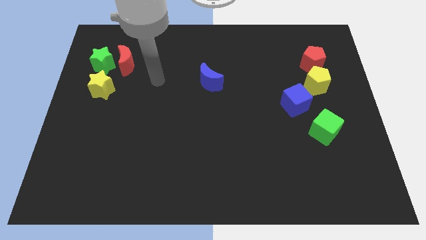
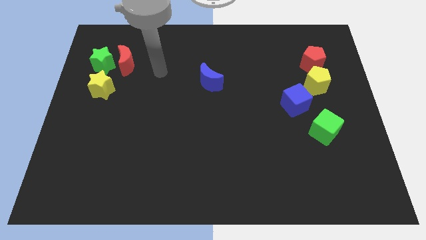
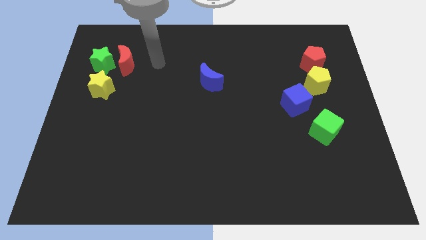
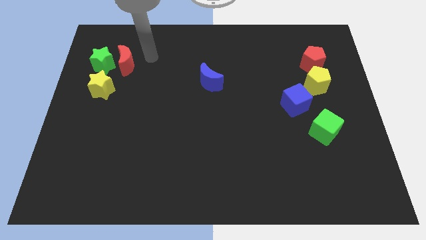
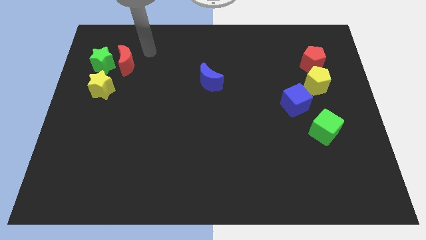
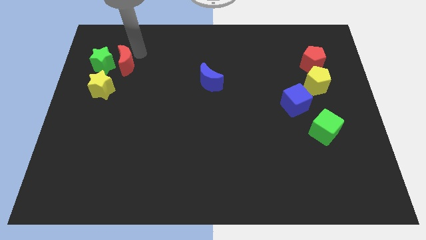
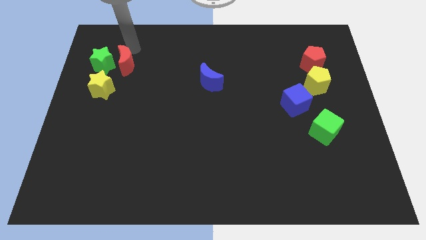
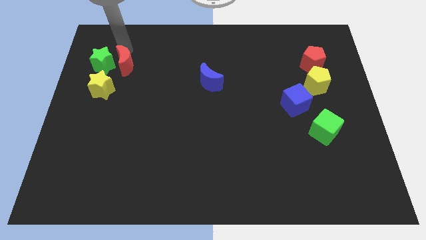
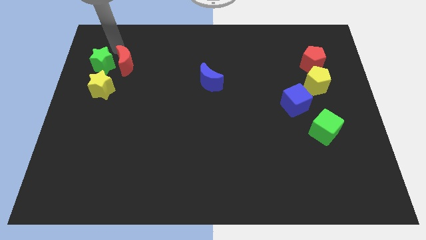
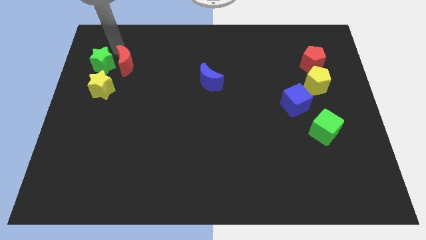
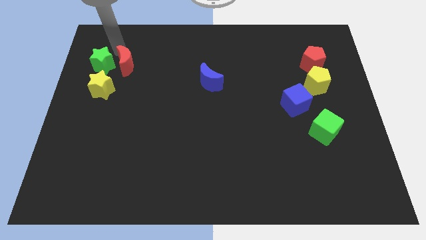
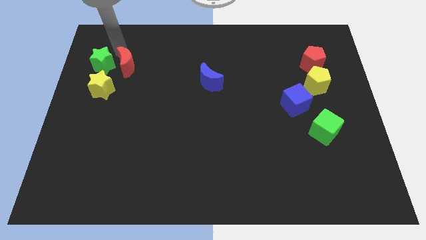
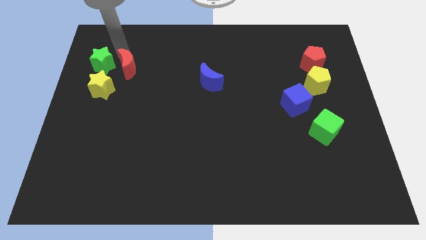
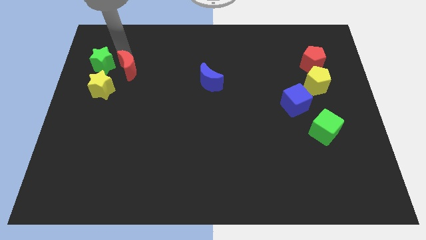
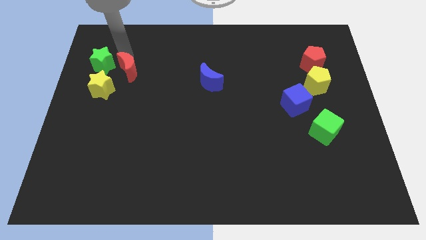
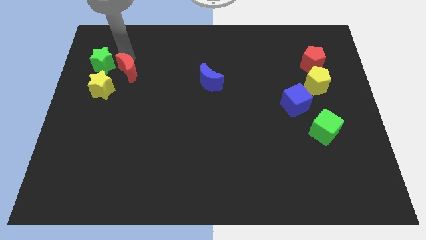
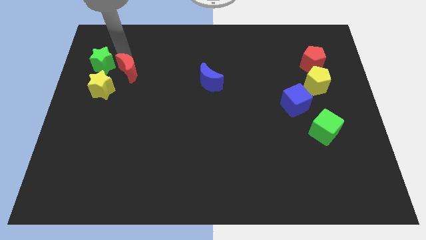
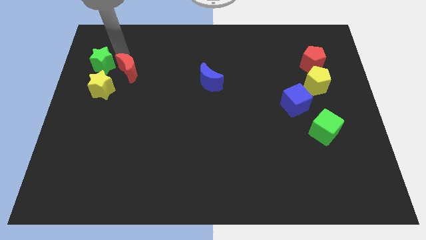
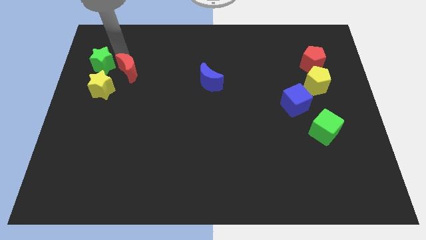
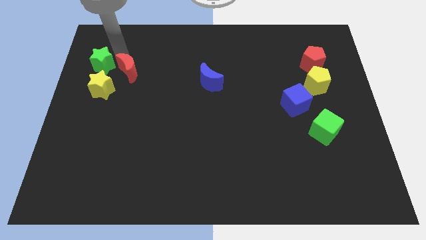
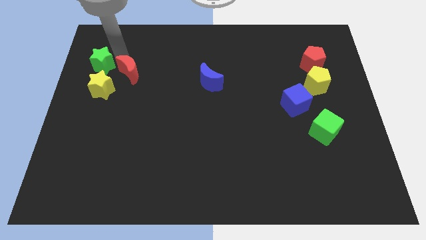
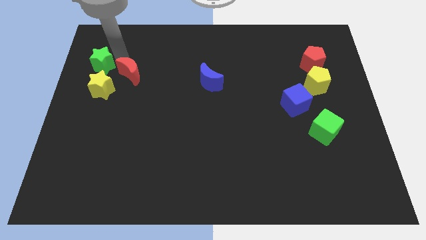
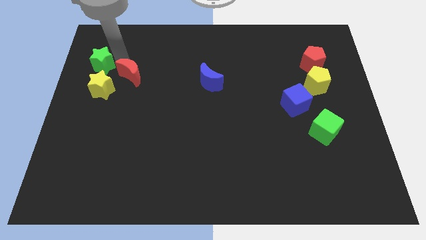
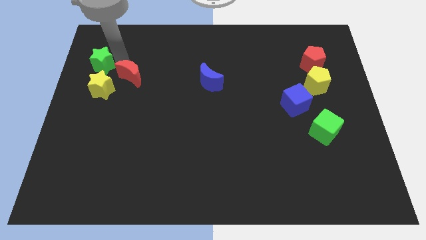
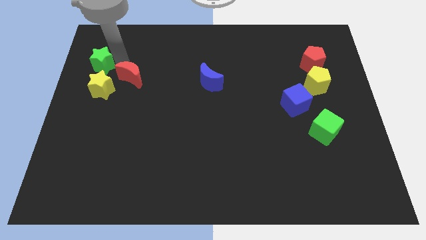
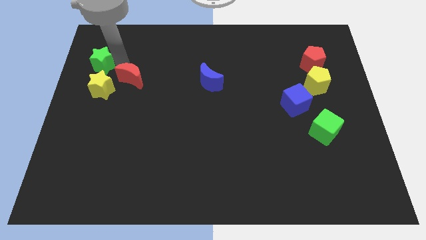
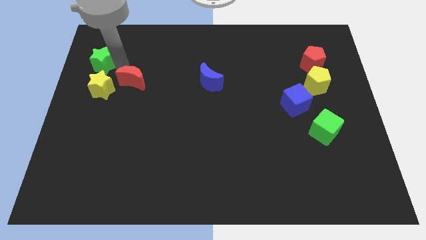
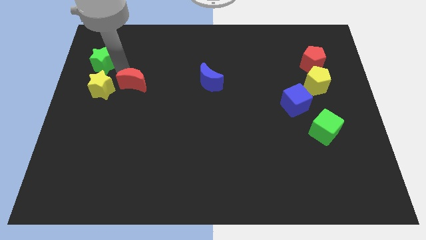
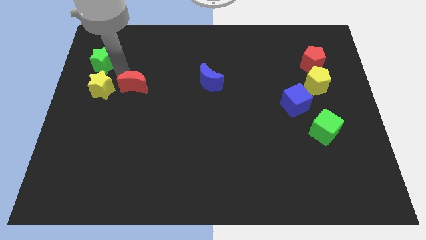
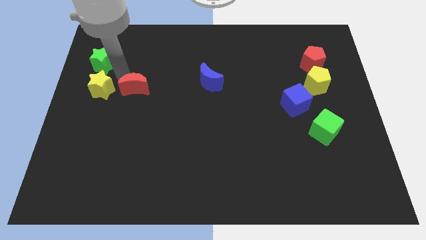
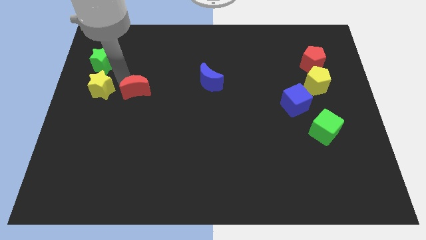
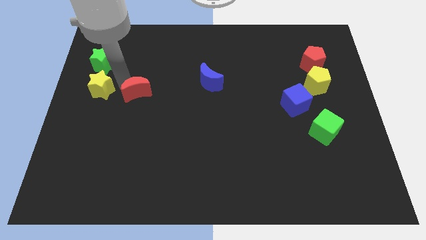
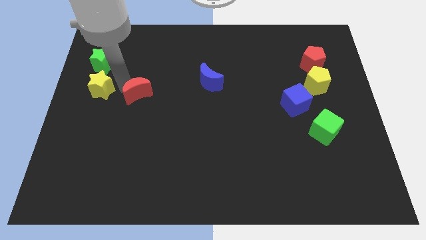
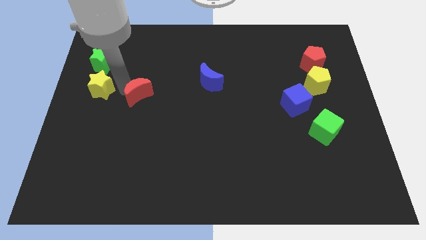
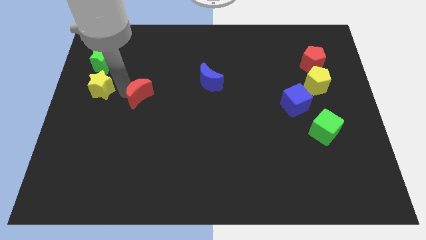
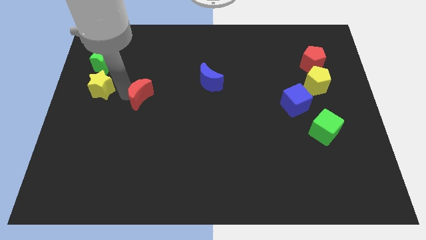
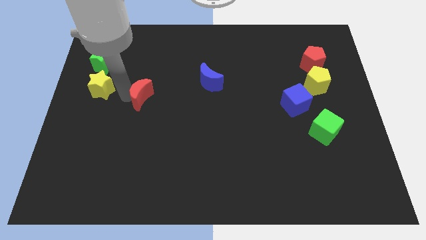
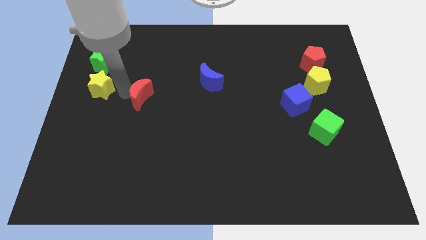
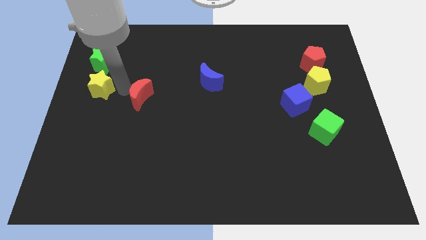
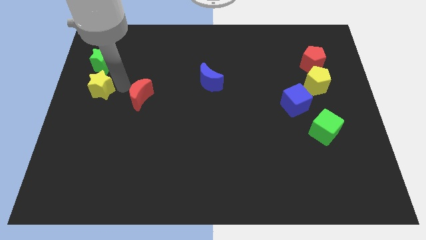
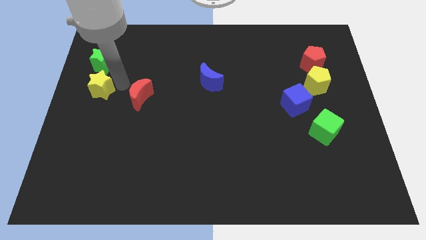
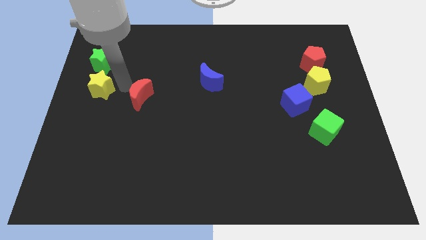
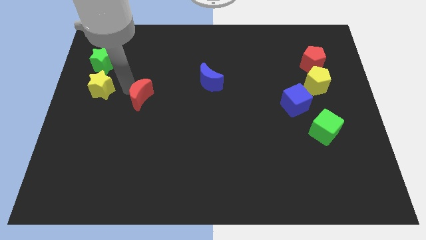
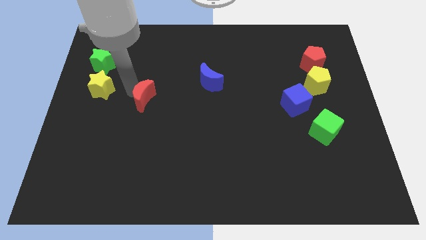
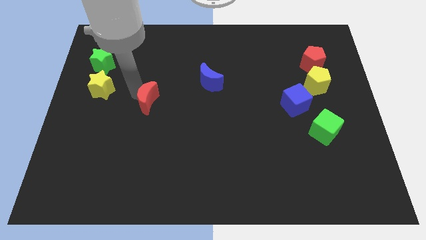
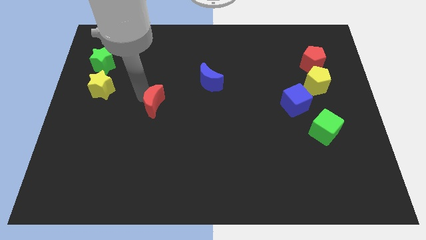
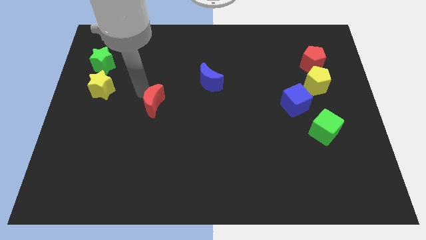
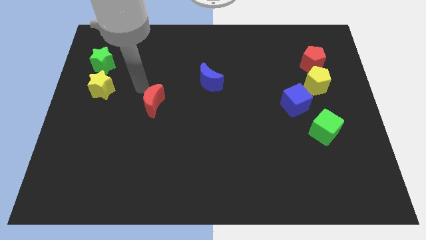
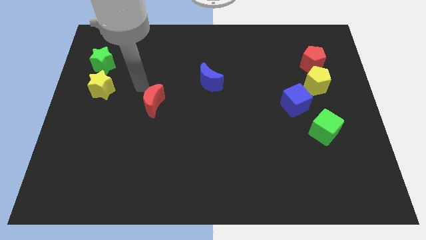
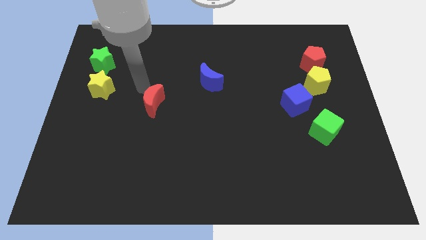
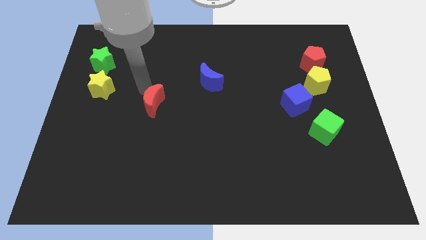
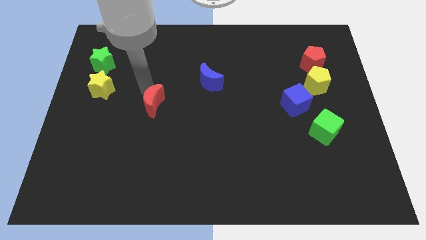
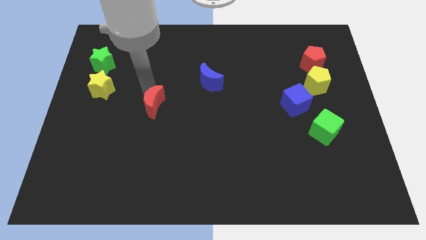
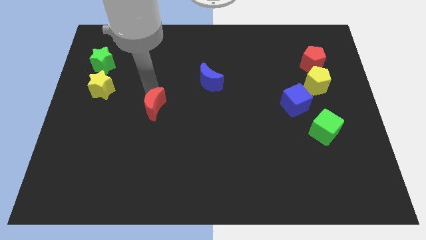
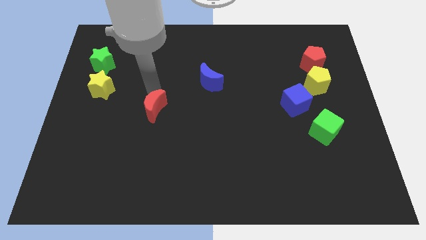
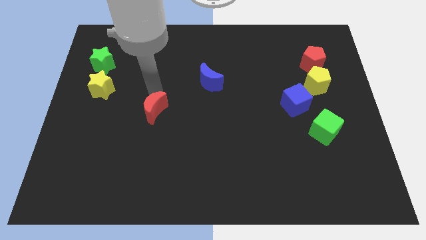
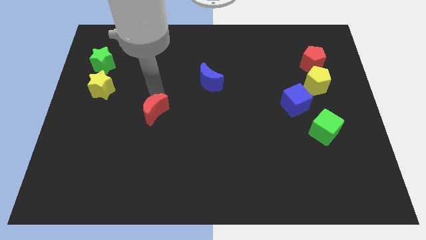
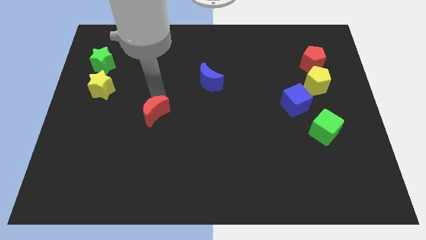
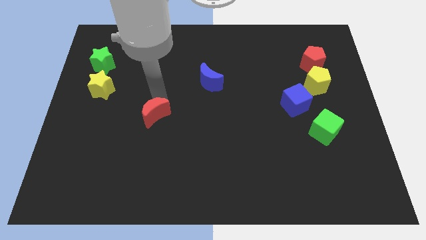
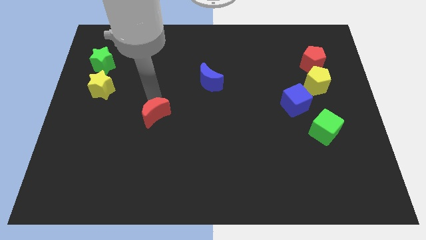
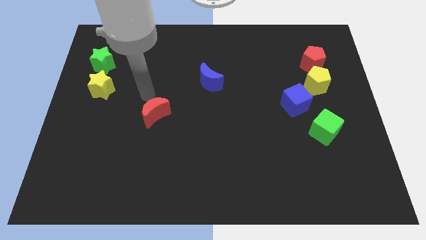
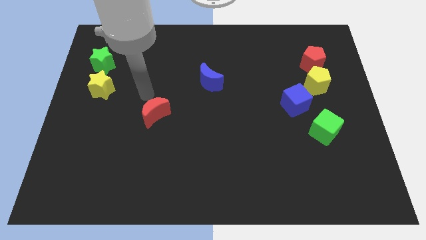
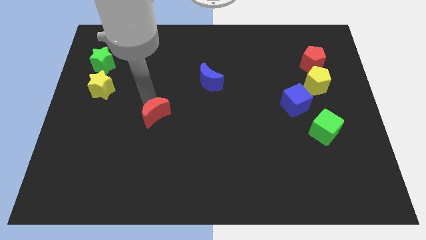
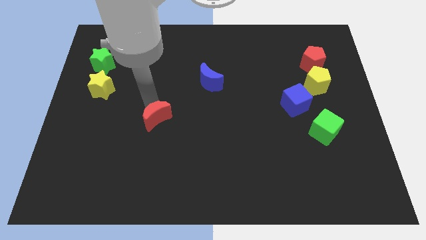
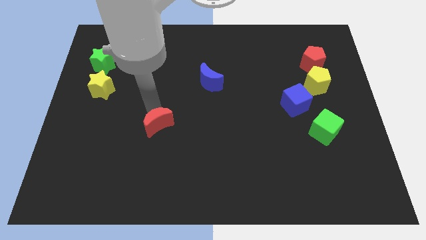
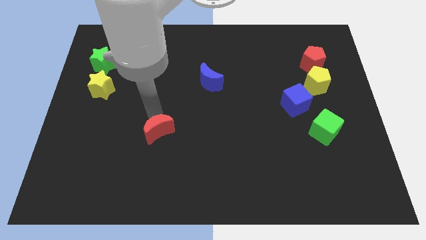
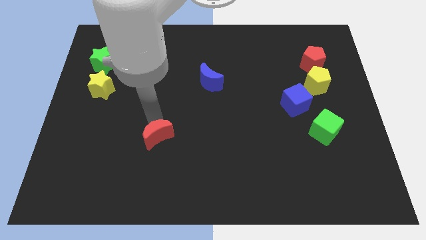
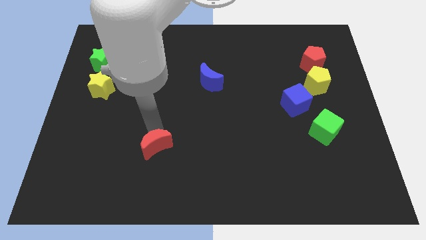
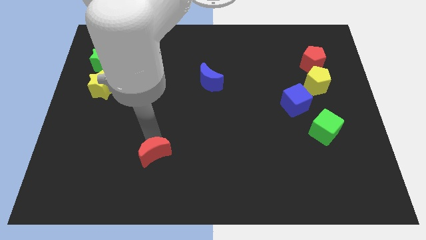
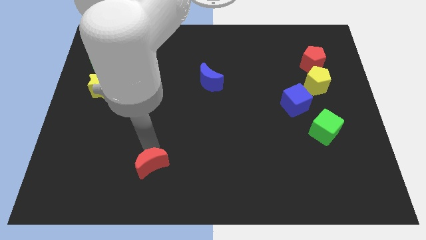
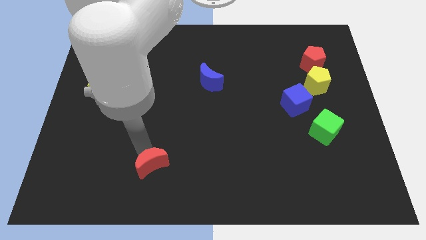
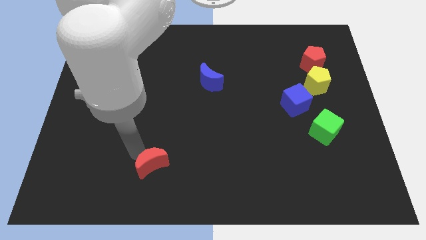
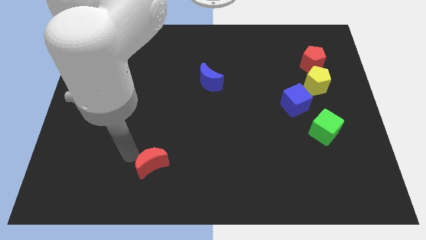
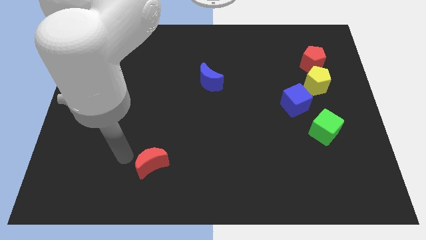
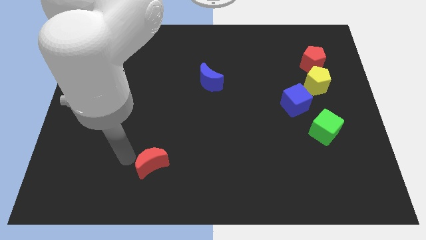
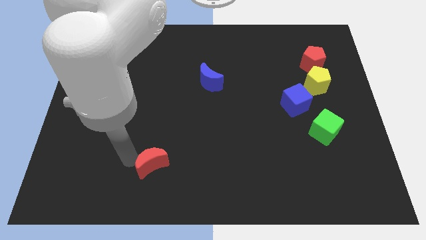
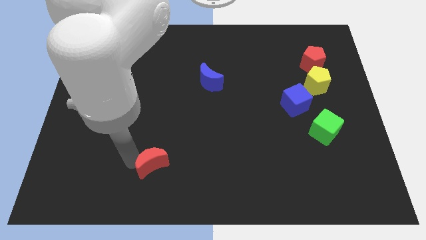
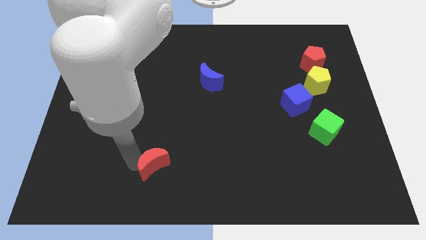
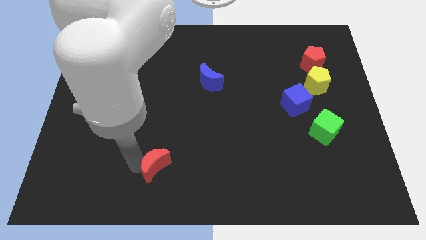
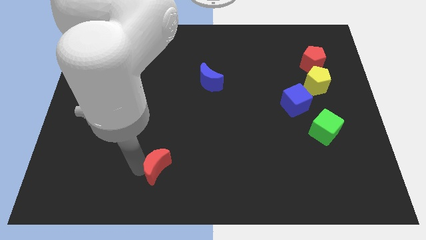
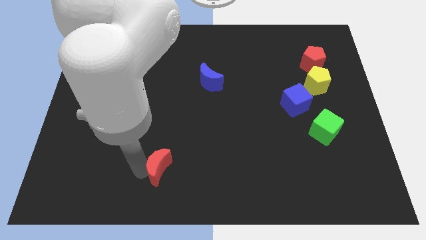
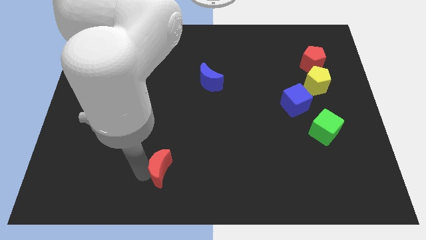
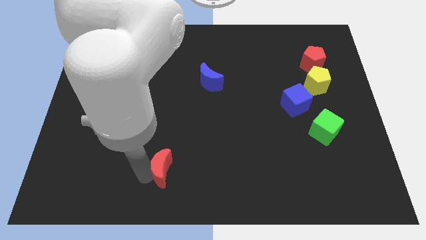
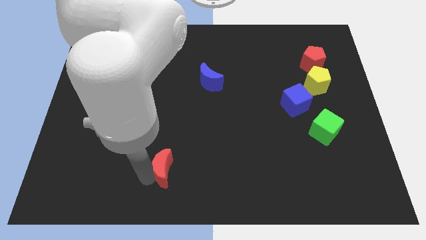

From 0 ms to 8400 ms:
put the red moon to the bottom
